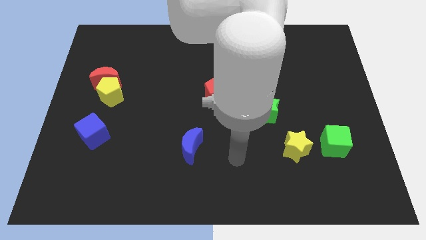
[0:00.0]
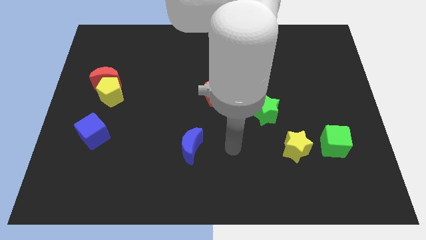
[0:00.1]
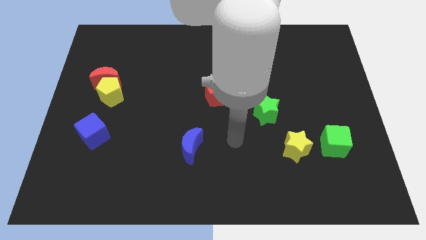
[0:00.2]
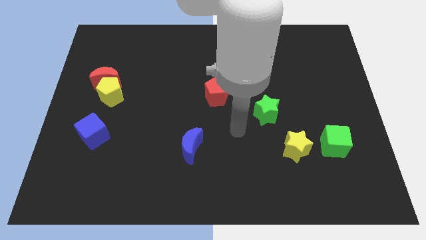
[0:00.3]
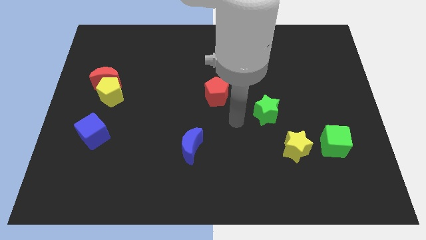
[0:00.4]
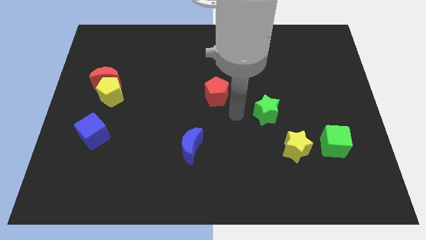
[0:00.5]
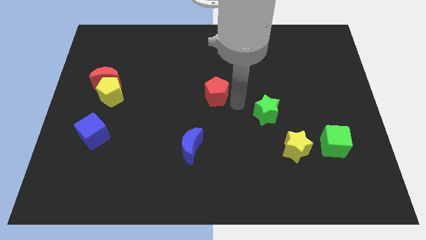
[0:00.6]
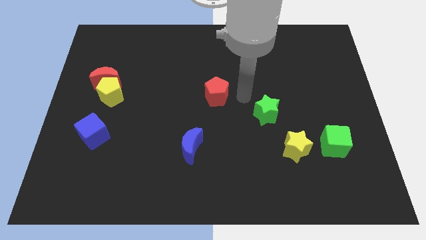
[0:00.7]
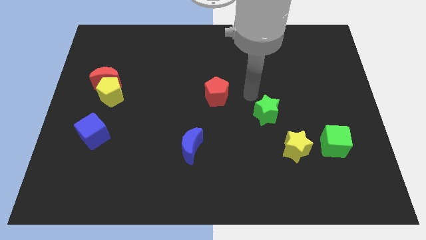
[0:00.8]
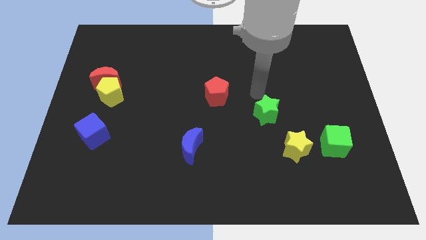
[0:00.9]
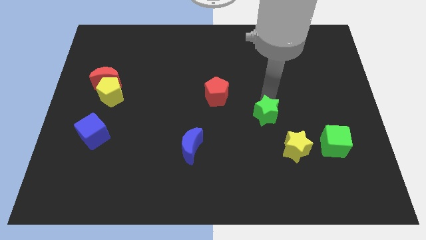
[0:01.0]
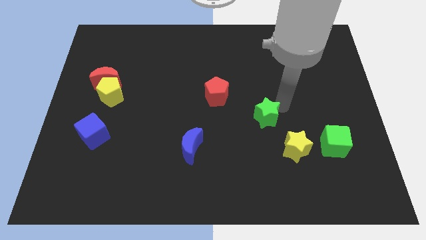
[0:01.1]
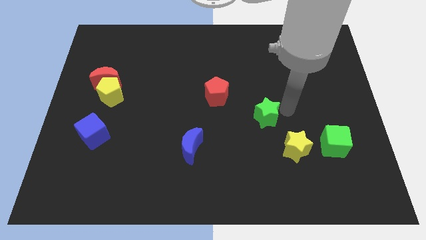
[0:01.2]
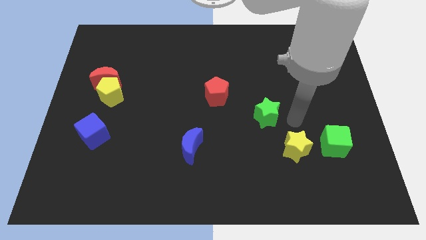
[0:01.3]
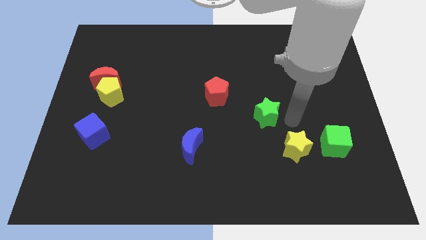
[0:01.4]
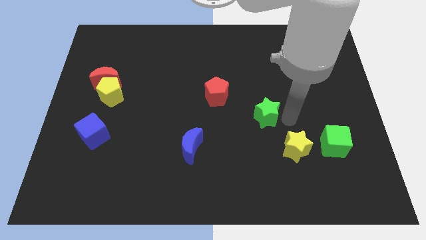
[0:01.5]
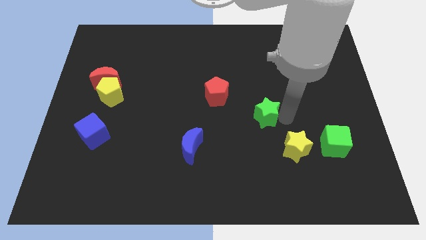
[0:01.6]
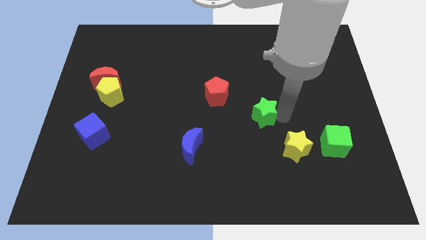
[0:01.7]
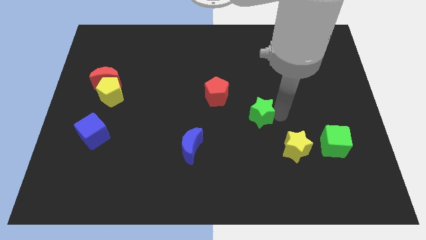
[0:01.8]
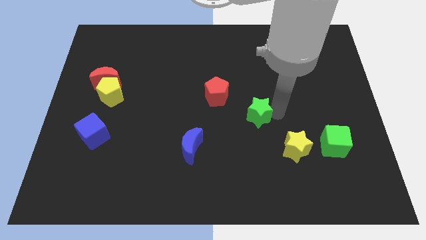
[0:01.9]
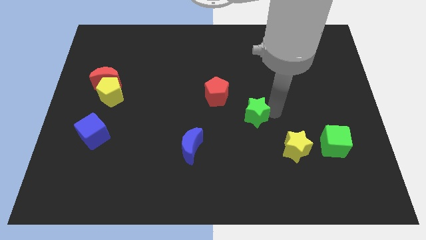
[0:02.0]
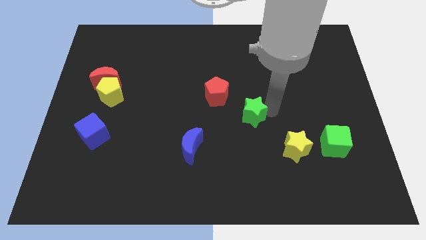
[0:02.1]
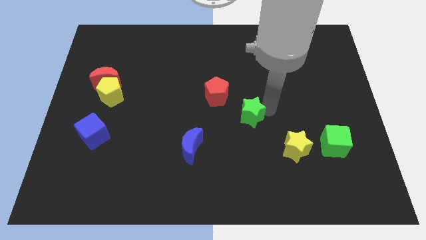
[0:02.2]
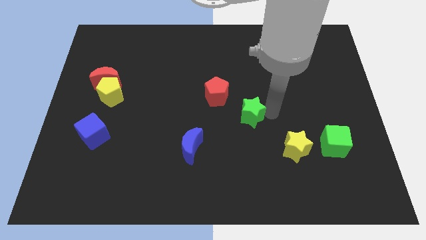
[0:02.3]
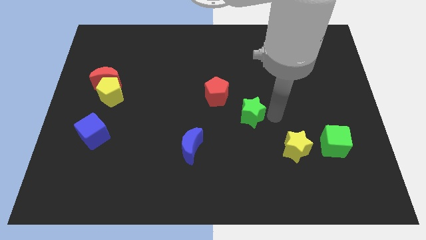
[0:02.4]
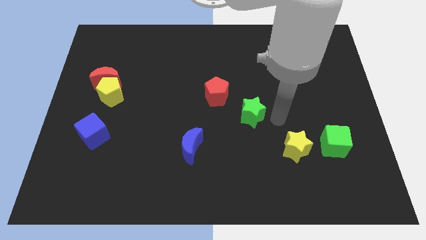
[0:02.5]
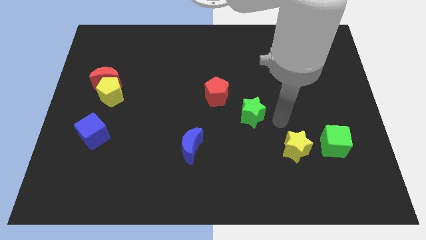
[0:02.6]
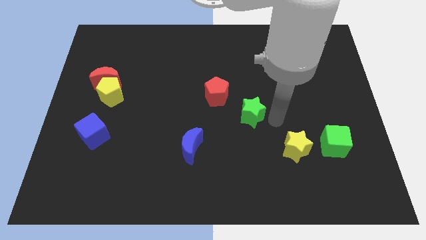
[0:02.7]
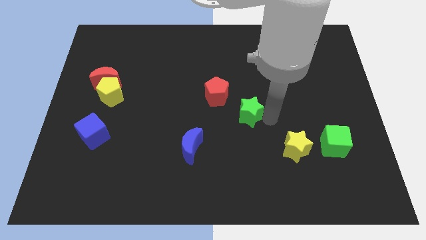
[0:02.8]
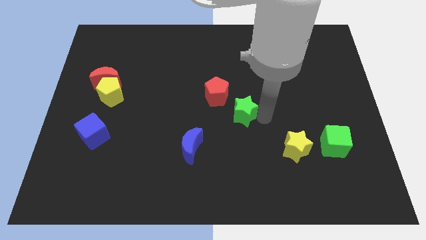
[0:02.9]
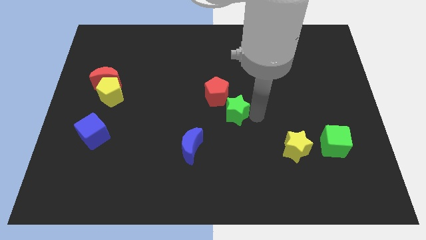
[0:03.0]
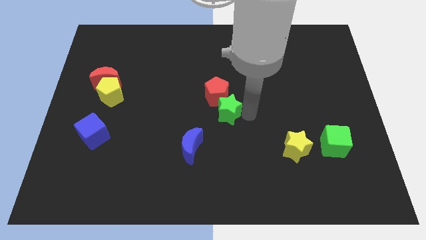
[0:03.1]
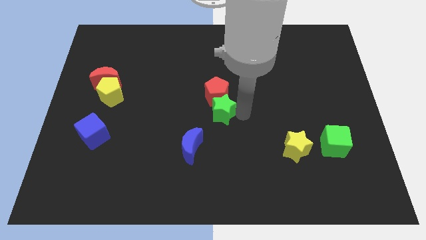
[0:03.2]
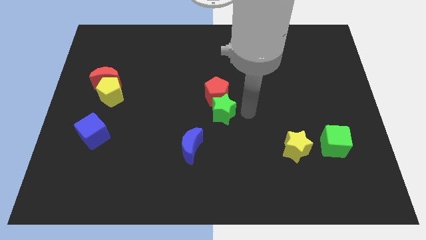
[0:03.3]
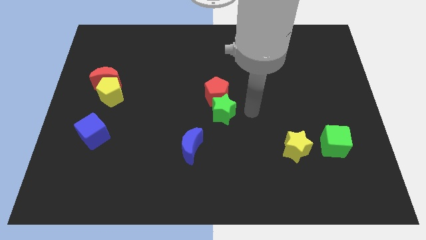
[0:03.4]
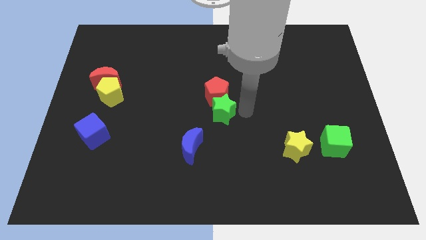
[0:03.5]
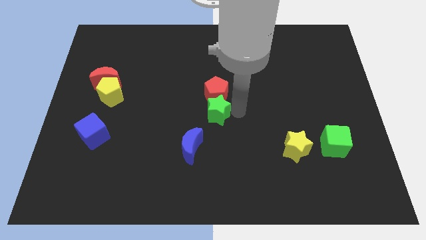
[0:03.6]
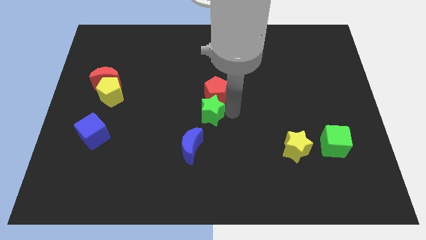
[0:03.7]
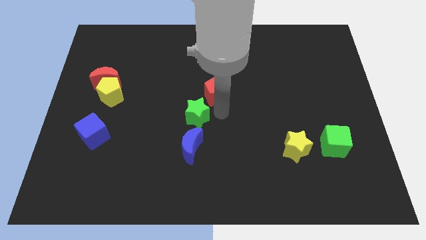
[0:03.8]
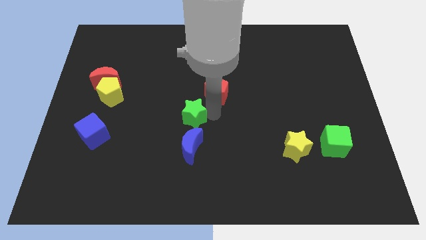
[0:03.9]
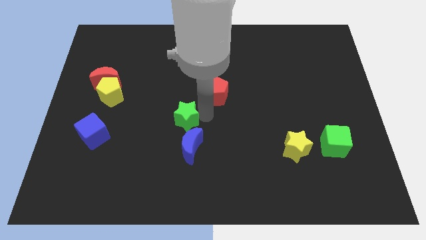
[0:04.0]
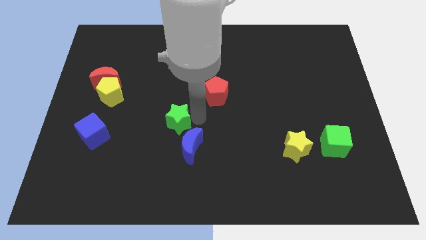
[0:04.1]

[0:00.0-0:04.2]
move the green star left

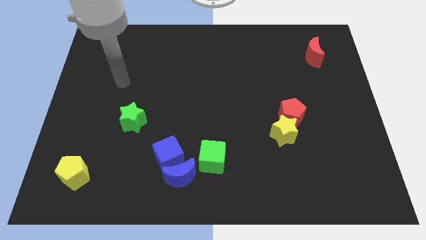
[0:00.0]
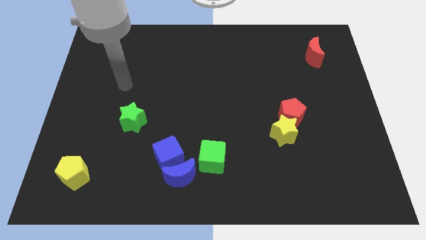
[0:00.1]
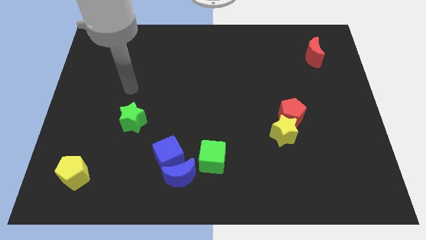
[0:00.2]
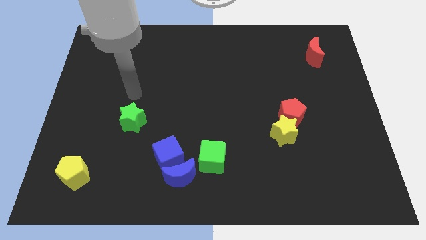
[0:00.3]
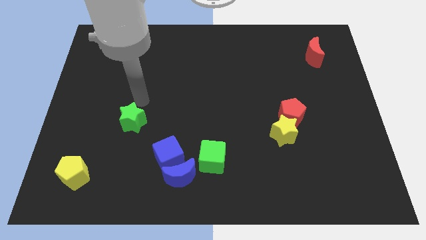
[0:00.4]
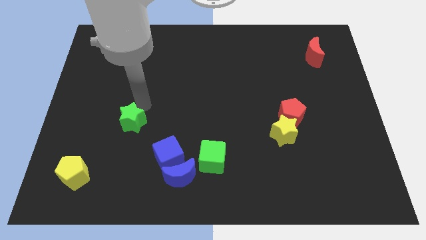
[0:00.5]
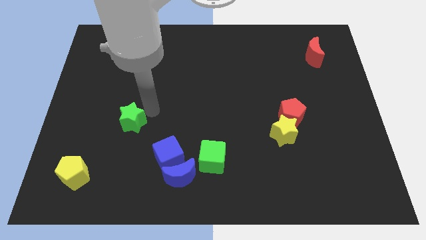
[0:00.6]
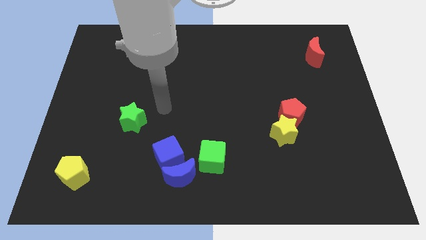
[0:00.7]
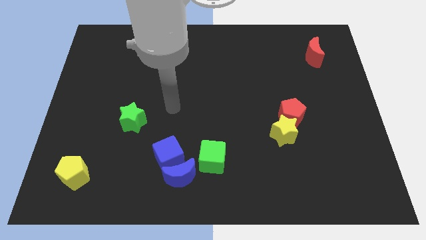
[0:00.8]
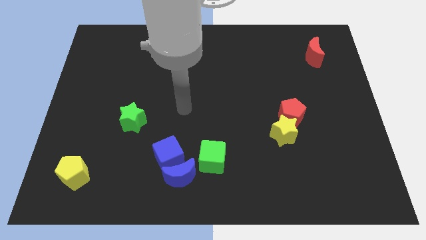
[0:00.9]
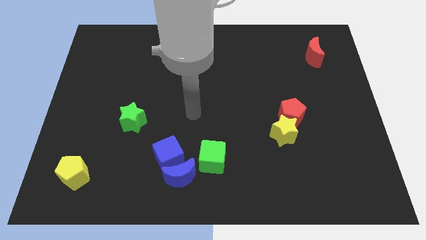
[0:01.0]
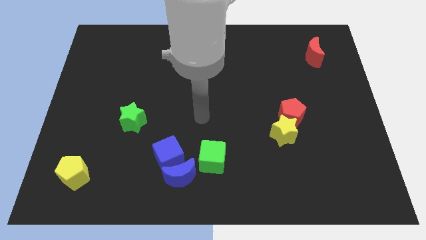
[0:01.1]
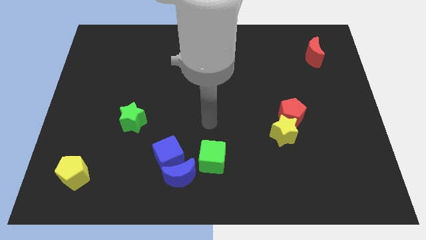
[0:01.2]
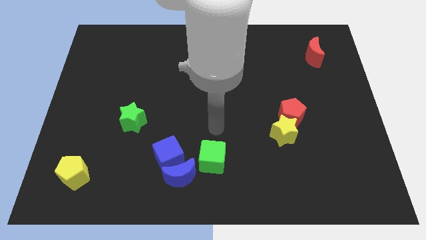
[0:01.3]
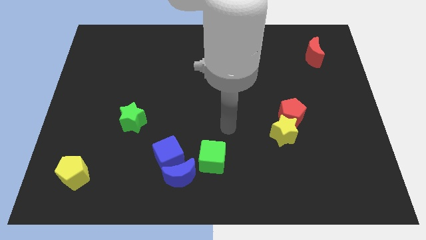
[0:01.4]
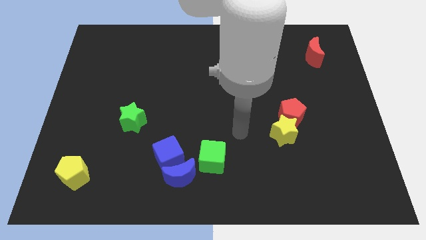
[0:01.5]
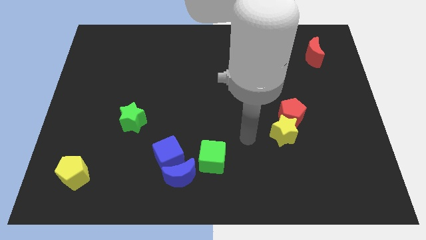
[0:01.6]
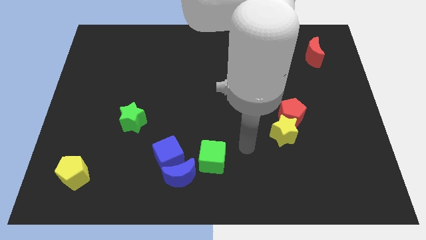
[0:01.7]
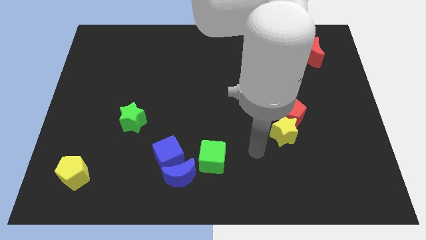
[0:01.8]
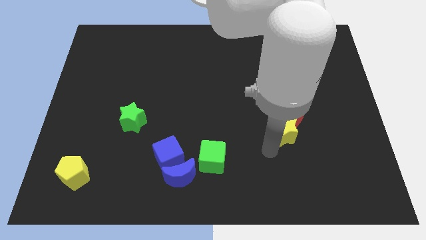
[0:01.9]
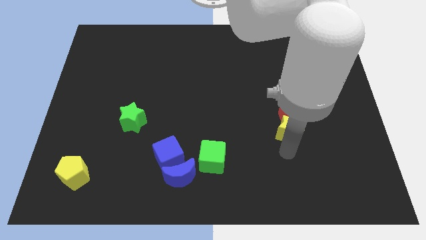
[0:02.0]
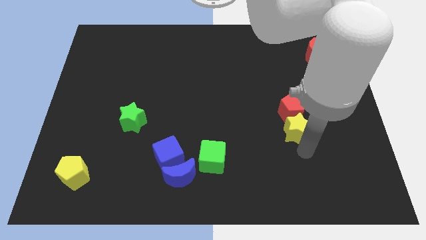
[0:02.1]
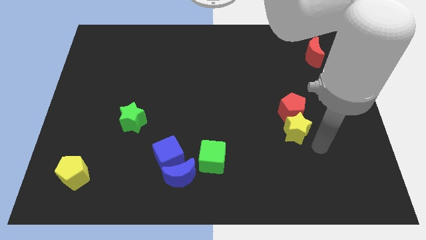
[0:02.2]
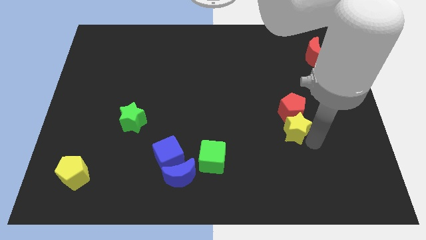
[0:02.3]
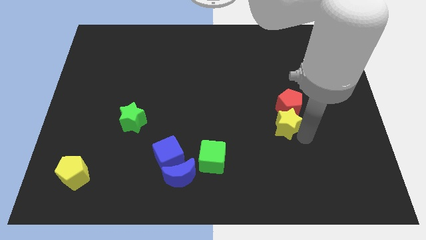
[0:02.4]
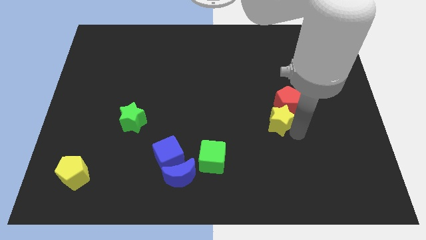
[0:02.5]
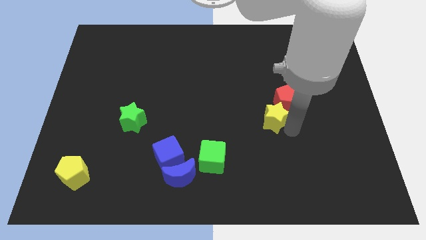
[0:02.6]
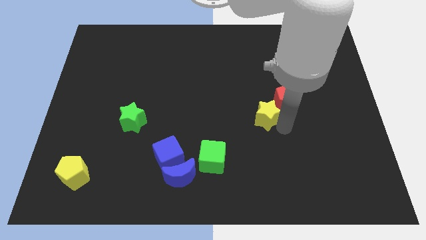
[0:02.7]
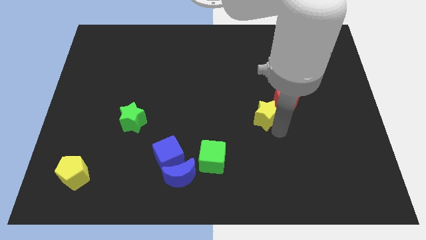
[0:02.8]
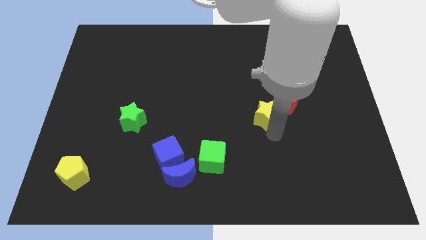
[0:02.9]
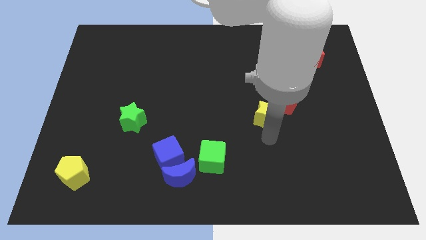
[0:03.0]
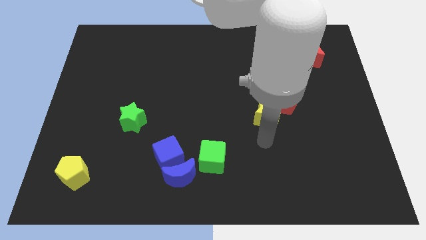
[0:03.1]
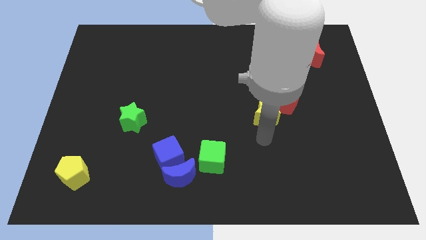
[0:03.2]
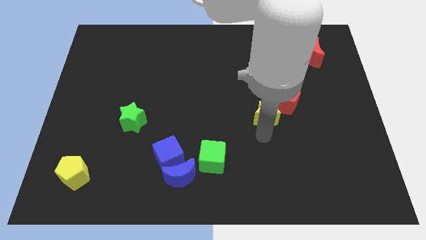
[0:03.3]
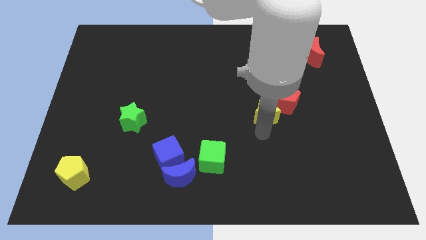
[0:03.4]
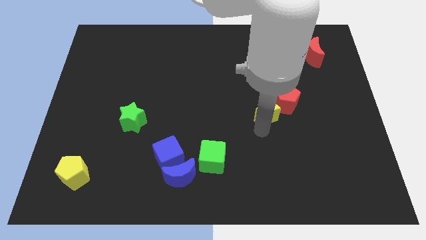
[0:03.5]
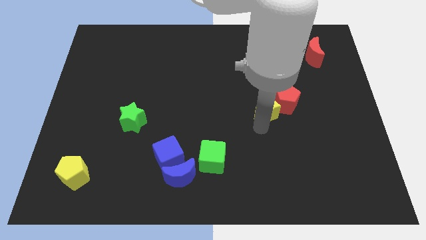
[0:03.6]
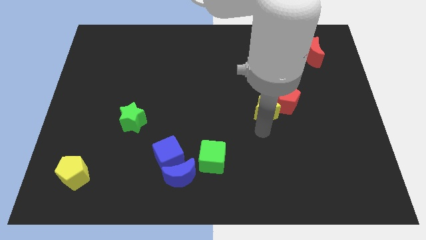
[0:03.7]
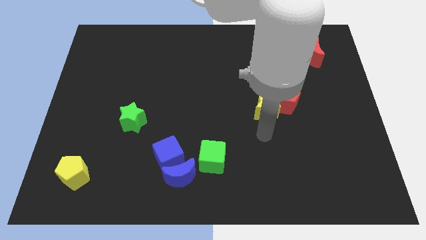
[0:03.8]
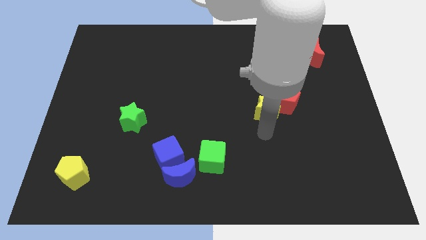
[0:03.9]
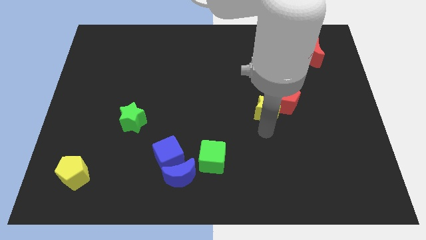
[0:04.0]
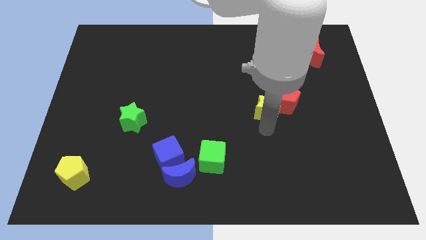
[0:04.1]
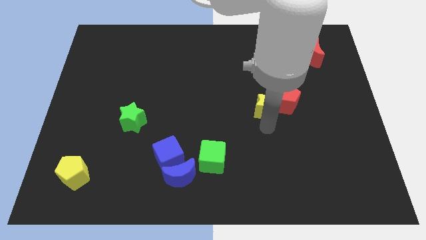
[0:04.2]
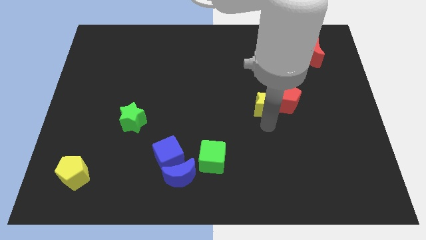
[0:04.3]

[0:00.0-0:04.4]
push the yellow star upwards a bit
